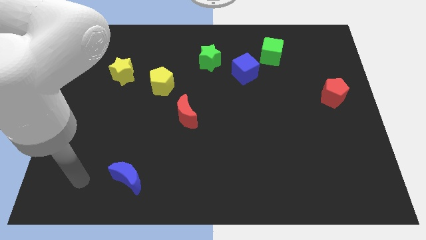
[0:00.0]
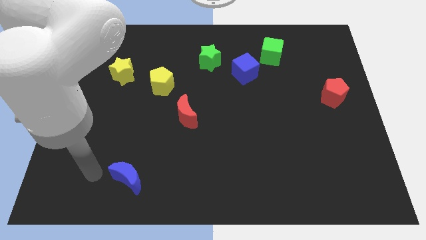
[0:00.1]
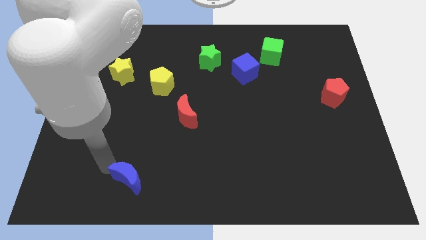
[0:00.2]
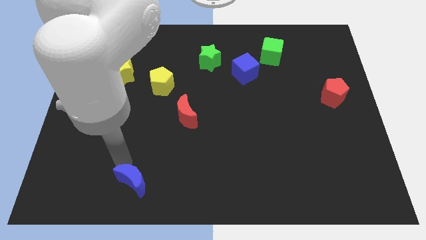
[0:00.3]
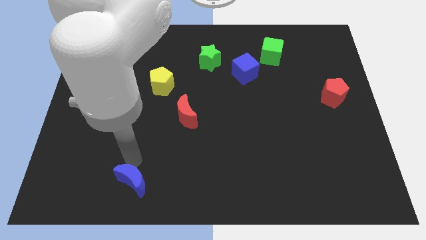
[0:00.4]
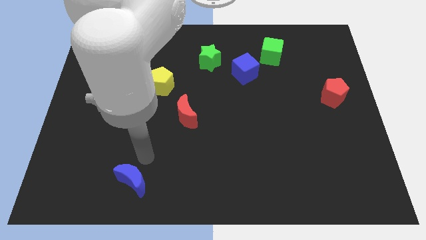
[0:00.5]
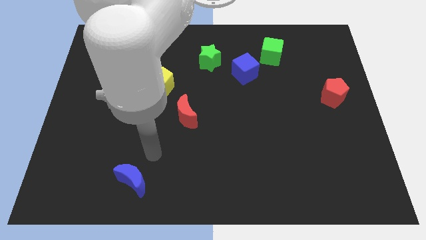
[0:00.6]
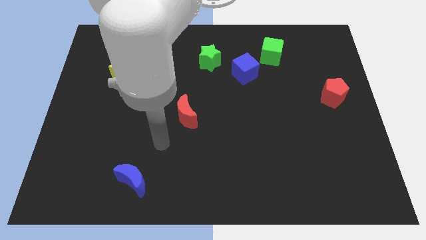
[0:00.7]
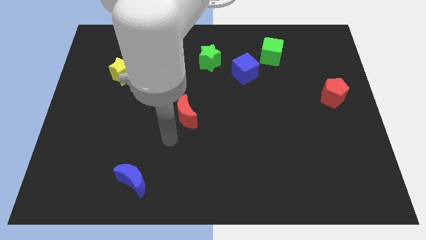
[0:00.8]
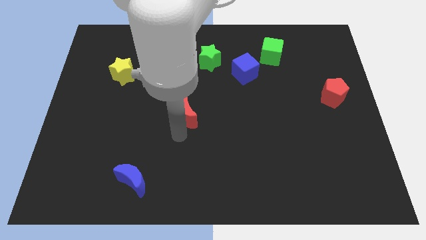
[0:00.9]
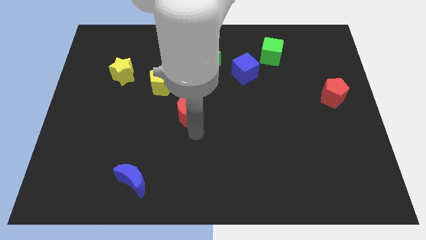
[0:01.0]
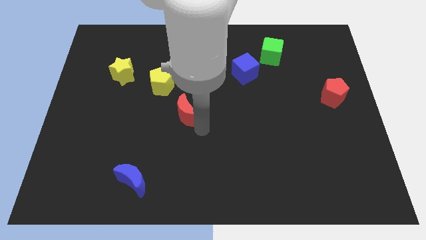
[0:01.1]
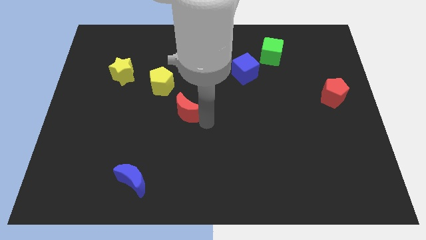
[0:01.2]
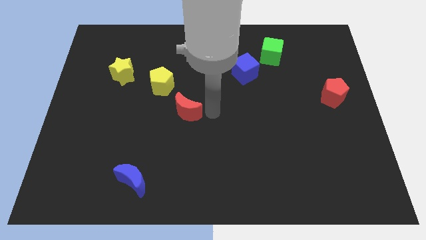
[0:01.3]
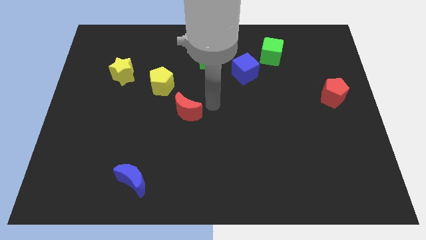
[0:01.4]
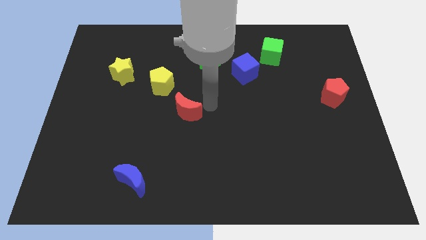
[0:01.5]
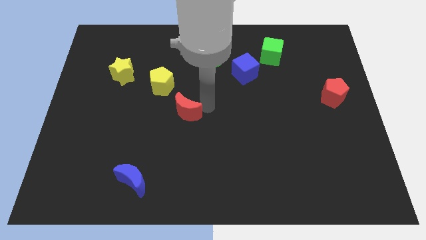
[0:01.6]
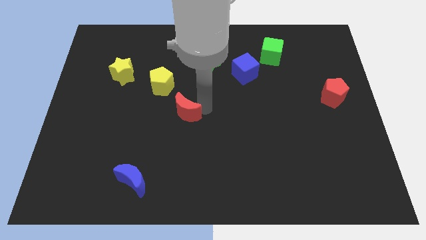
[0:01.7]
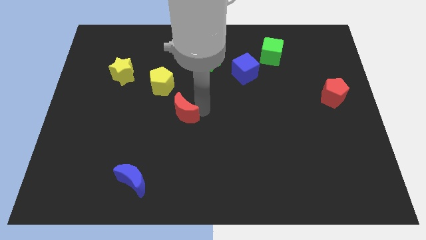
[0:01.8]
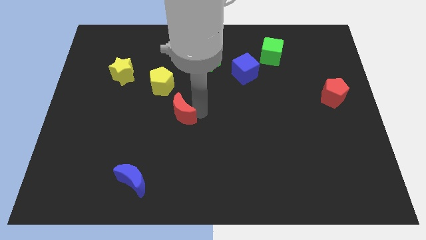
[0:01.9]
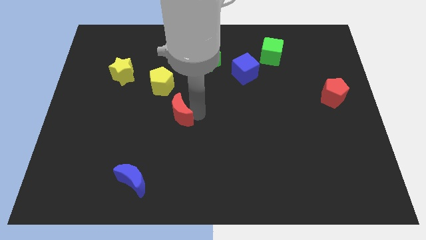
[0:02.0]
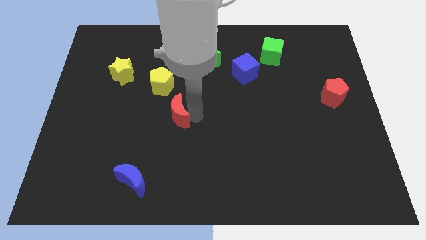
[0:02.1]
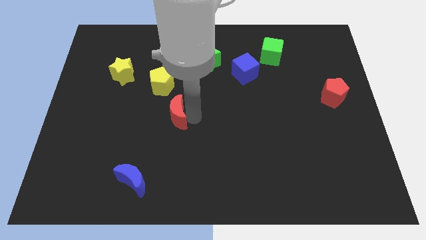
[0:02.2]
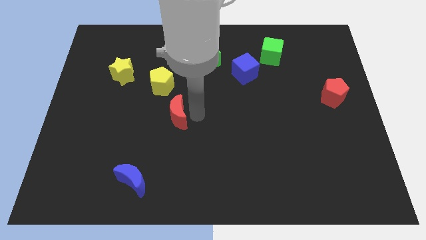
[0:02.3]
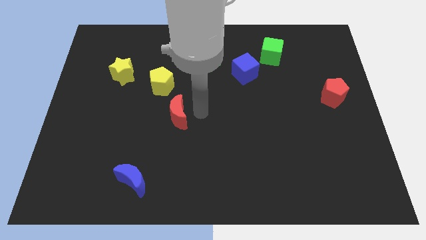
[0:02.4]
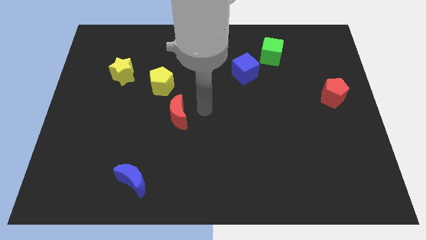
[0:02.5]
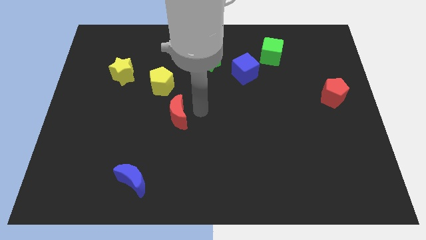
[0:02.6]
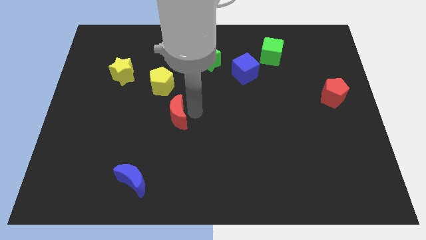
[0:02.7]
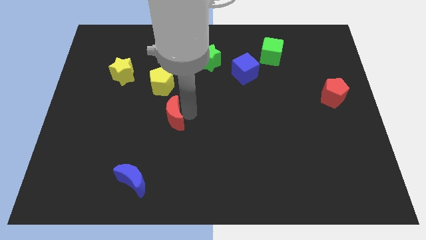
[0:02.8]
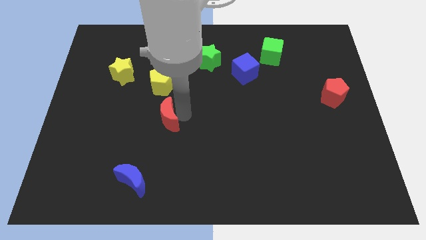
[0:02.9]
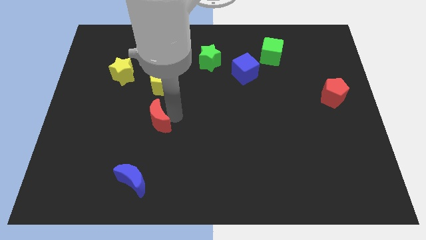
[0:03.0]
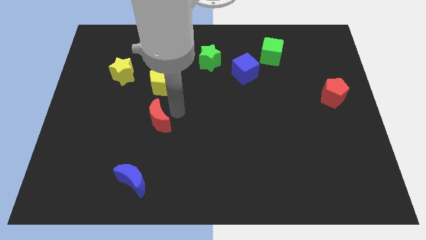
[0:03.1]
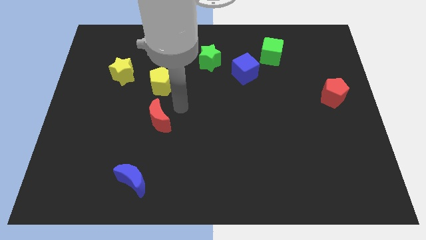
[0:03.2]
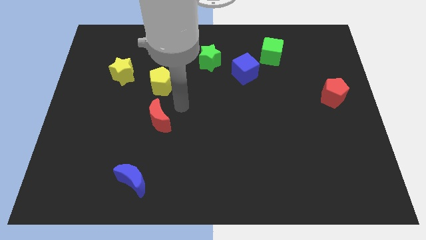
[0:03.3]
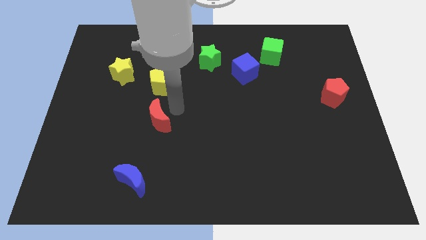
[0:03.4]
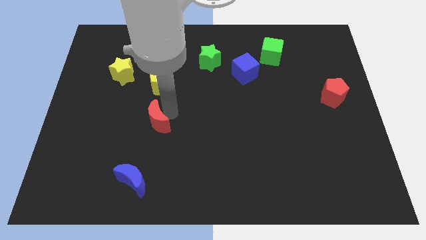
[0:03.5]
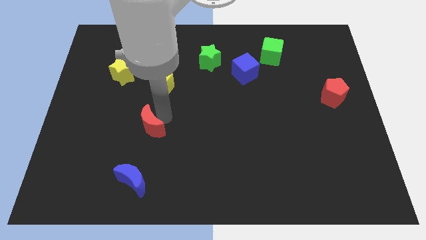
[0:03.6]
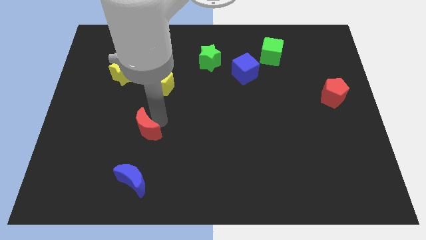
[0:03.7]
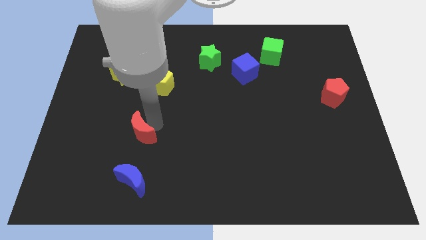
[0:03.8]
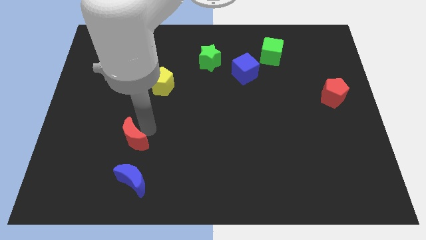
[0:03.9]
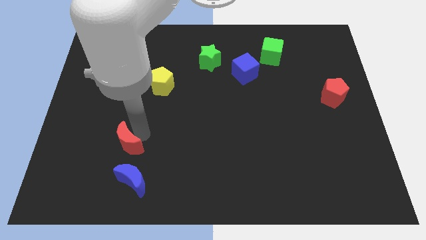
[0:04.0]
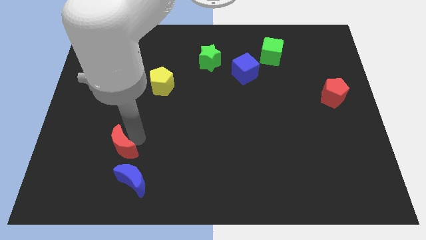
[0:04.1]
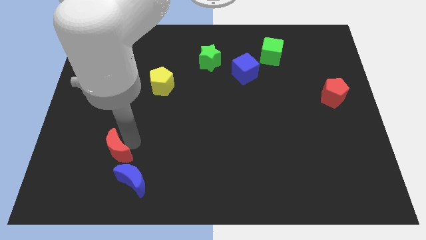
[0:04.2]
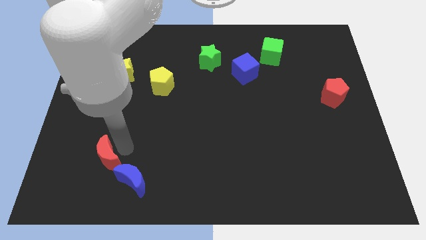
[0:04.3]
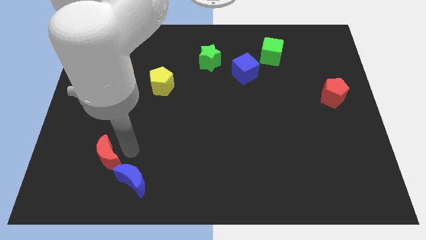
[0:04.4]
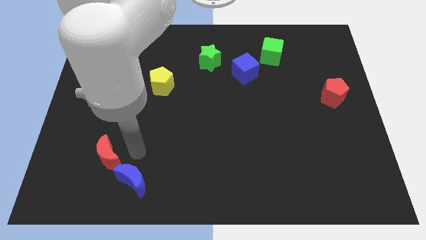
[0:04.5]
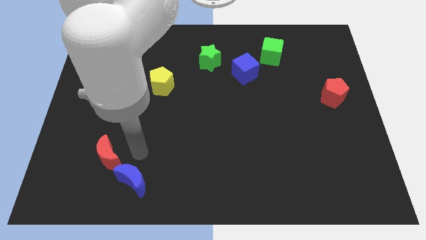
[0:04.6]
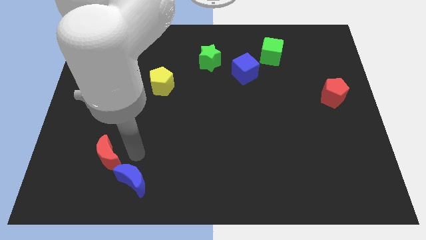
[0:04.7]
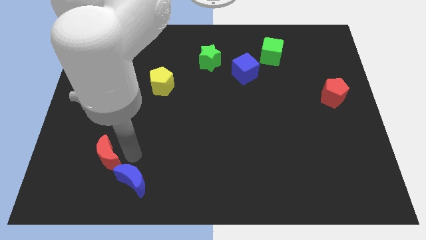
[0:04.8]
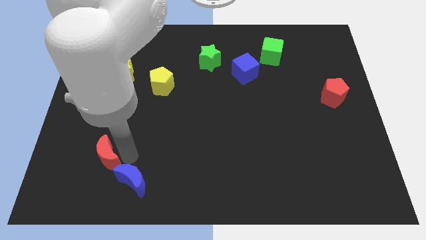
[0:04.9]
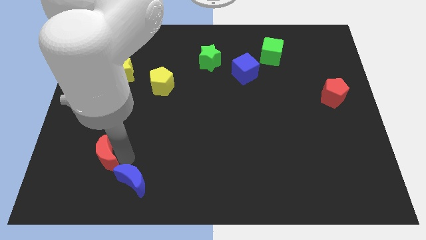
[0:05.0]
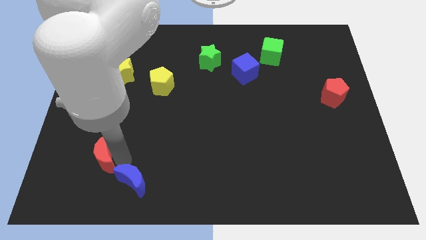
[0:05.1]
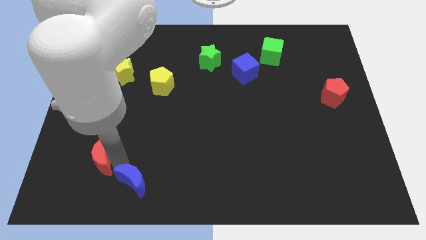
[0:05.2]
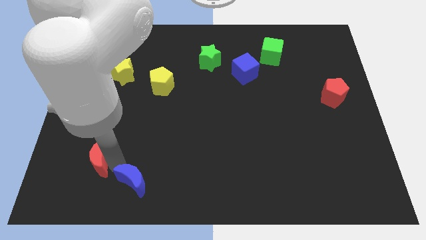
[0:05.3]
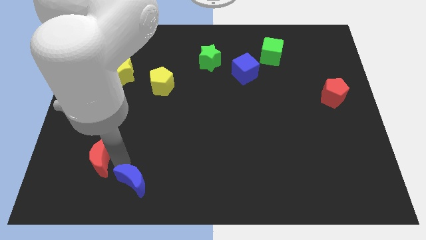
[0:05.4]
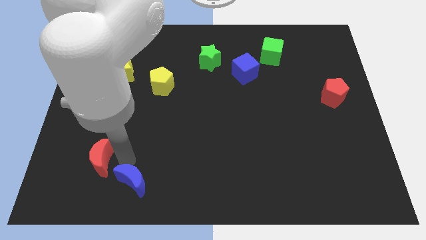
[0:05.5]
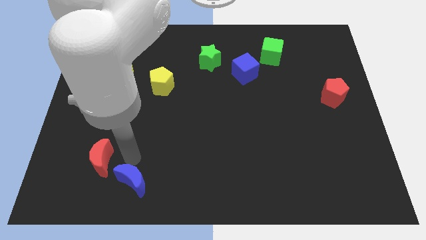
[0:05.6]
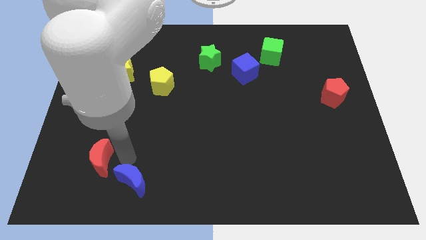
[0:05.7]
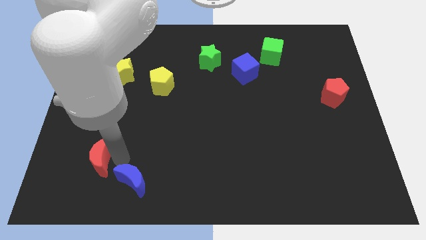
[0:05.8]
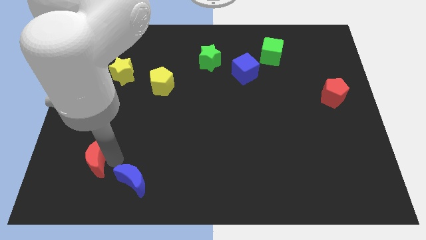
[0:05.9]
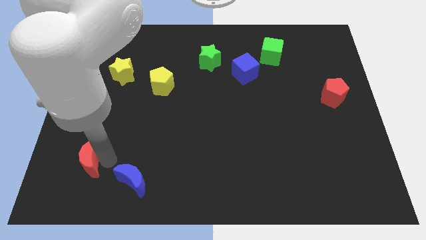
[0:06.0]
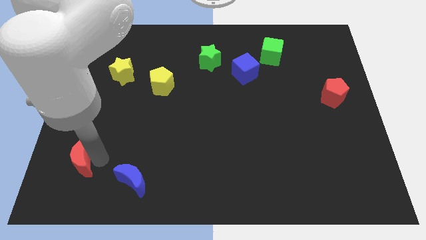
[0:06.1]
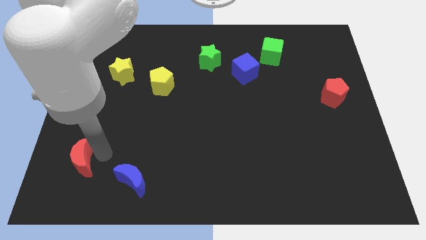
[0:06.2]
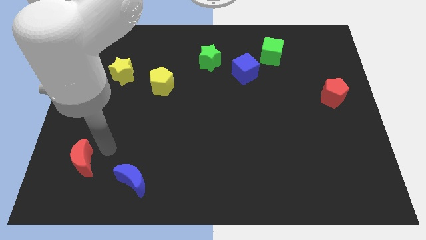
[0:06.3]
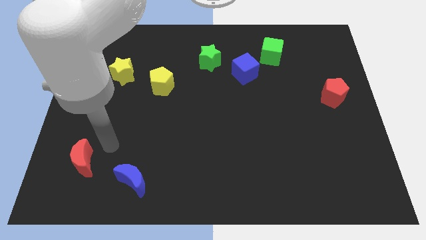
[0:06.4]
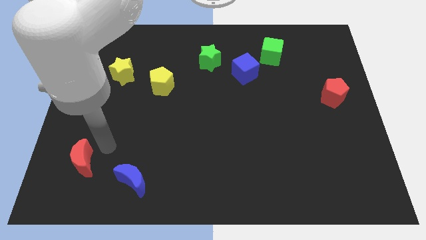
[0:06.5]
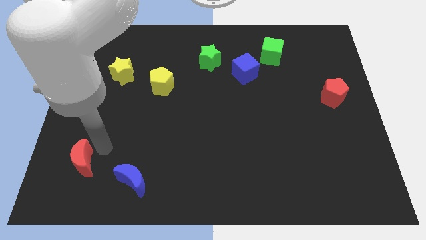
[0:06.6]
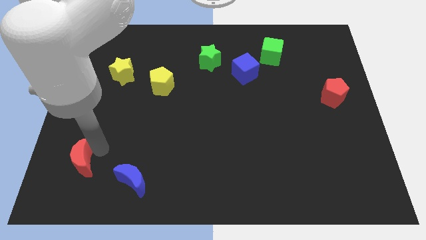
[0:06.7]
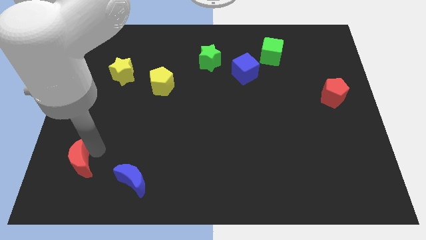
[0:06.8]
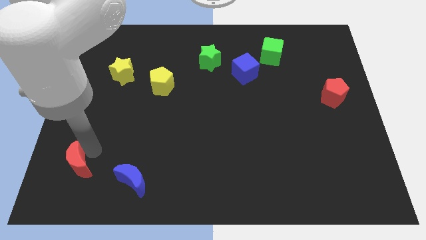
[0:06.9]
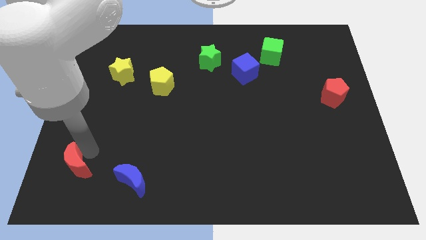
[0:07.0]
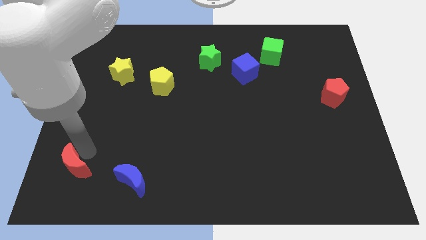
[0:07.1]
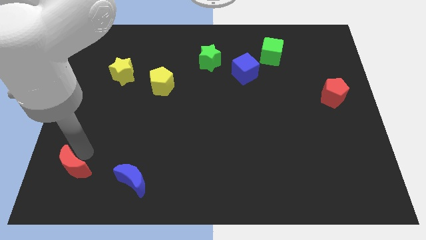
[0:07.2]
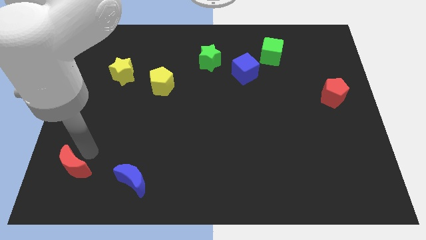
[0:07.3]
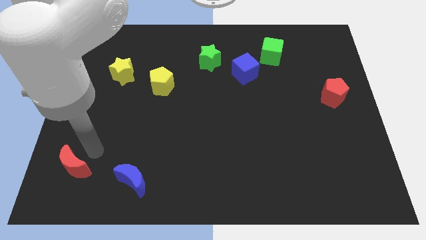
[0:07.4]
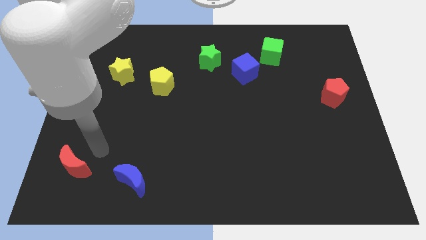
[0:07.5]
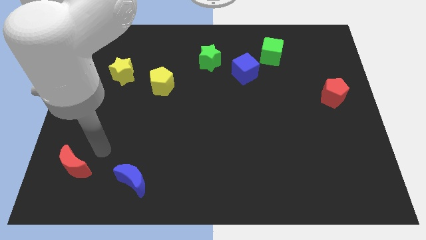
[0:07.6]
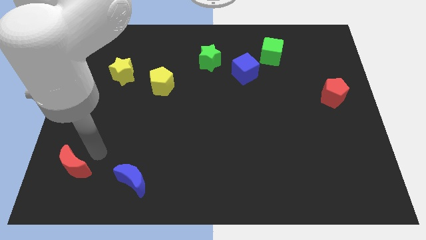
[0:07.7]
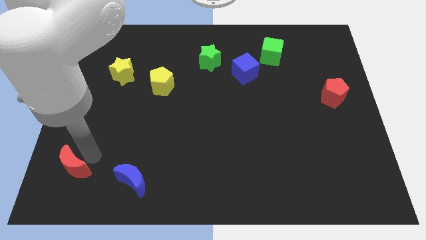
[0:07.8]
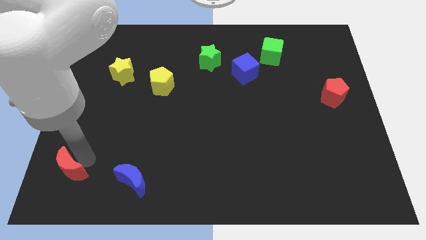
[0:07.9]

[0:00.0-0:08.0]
put the red moon to the lower left corner
